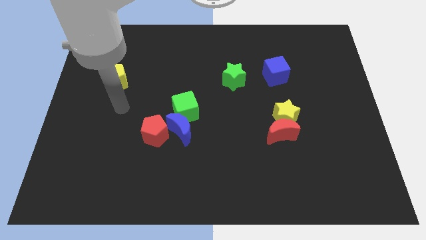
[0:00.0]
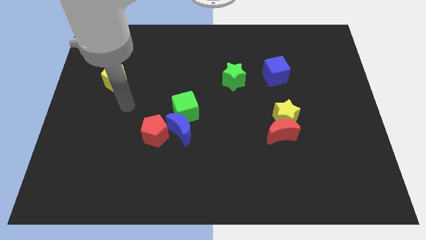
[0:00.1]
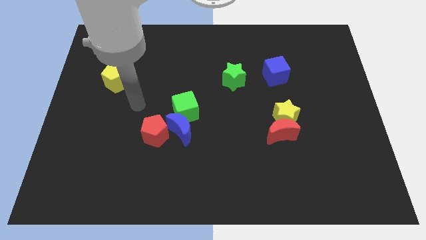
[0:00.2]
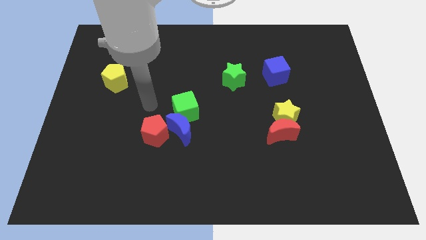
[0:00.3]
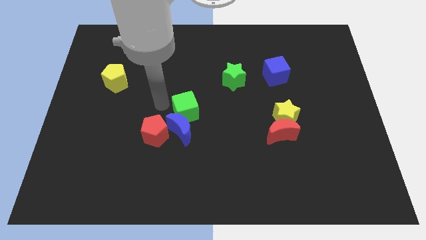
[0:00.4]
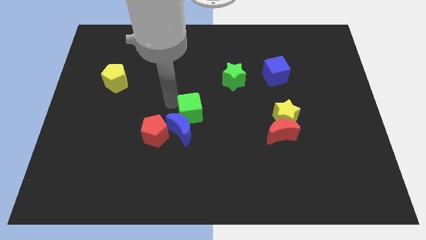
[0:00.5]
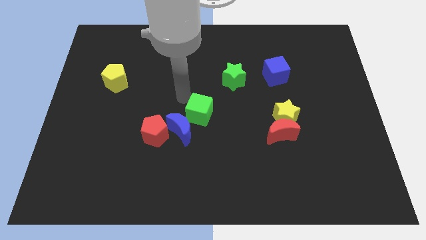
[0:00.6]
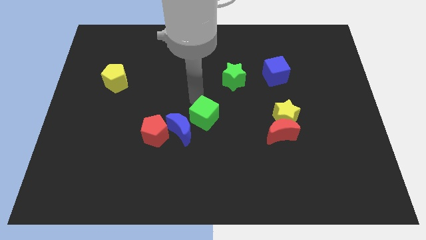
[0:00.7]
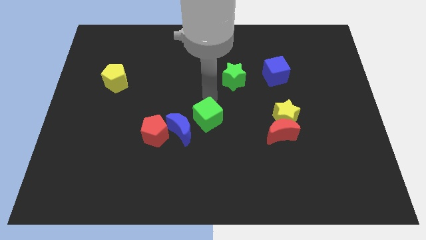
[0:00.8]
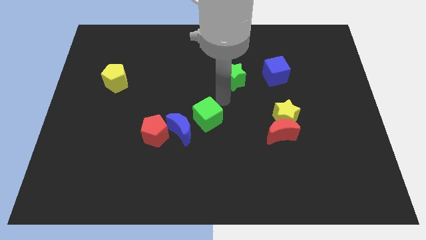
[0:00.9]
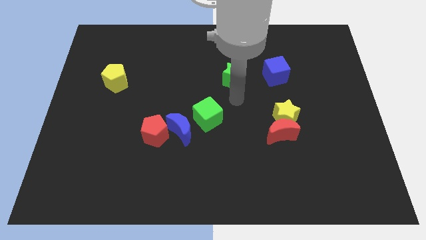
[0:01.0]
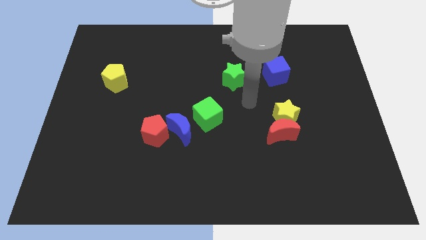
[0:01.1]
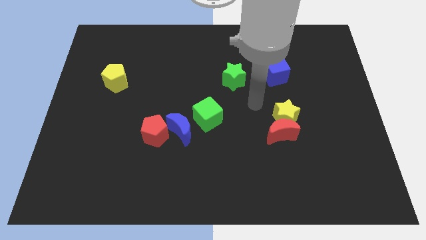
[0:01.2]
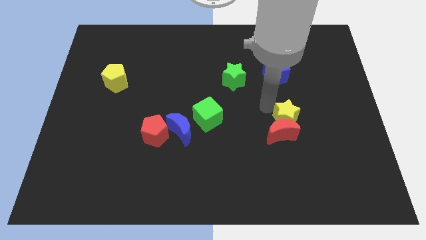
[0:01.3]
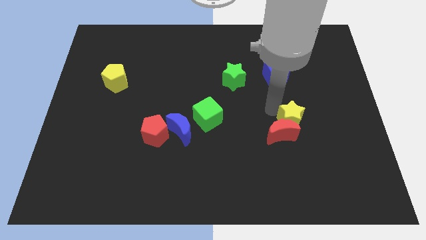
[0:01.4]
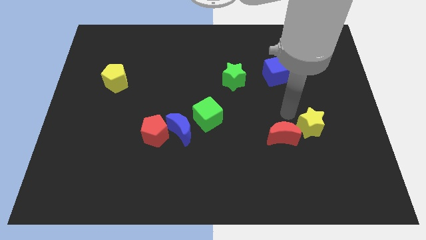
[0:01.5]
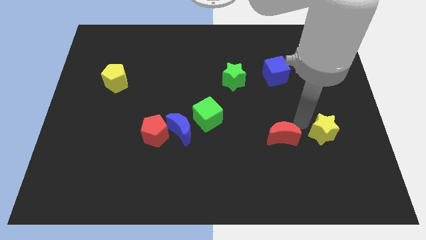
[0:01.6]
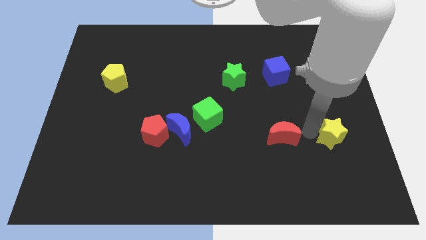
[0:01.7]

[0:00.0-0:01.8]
separate the red moon from the yellow star

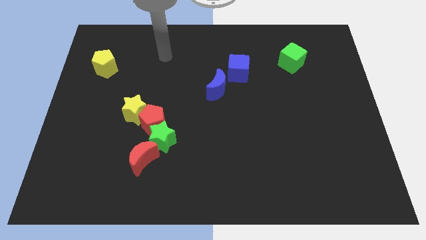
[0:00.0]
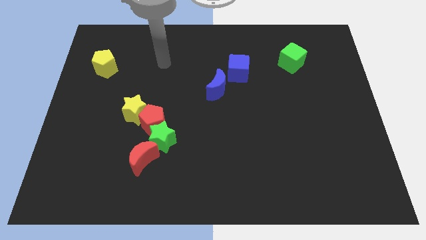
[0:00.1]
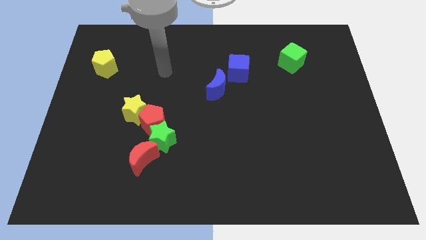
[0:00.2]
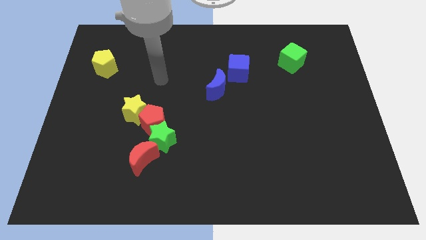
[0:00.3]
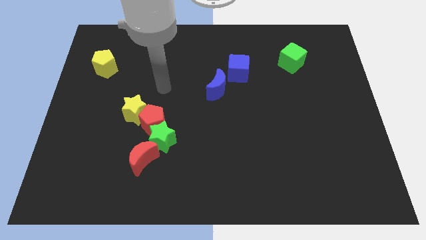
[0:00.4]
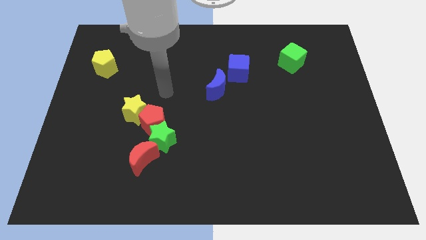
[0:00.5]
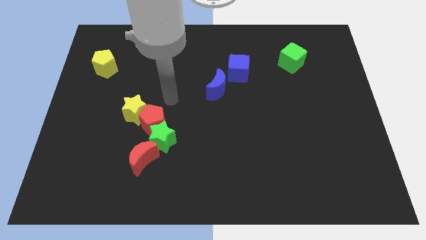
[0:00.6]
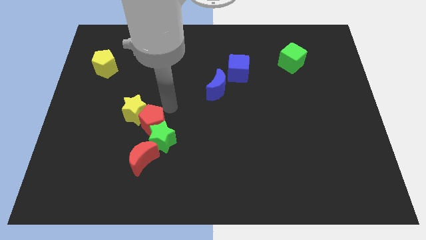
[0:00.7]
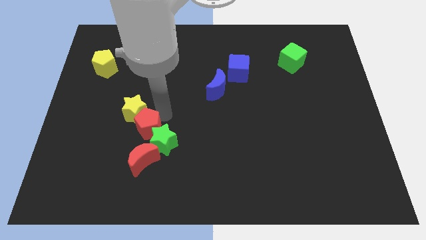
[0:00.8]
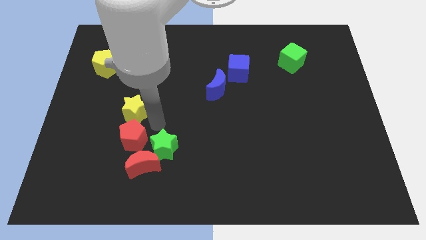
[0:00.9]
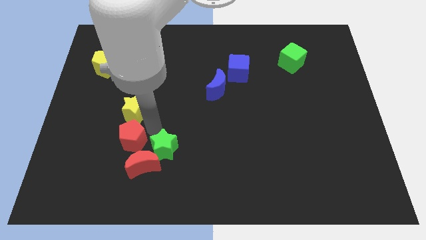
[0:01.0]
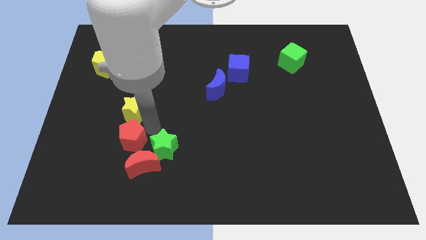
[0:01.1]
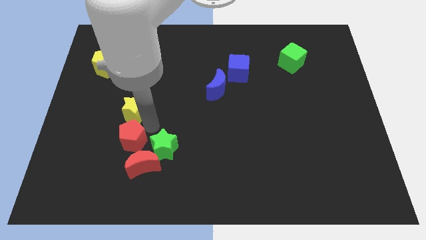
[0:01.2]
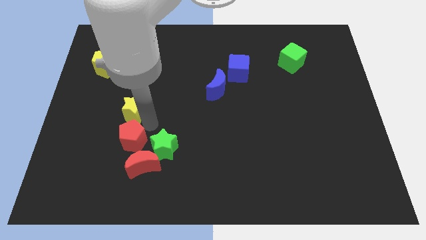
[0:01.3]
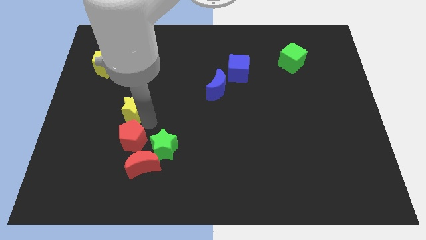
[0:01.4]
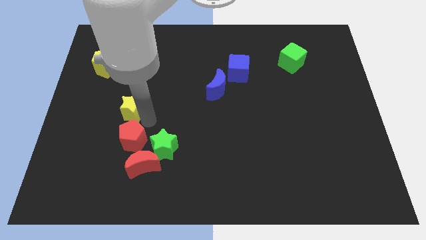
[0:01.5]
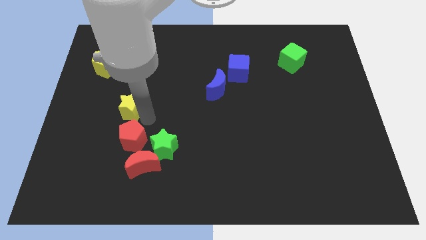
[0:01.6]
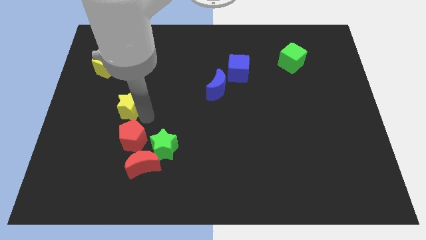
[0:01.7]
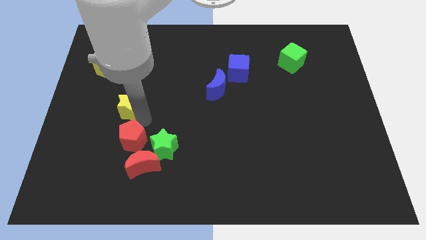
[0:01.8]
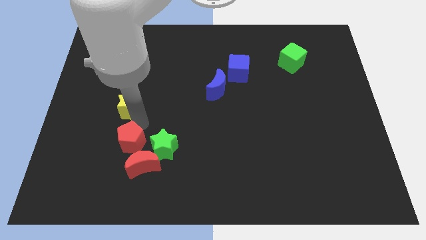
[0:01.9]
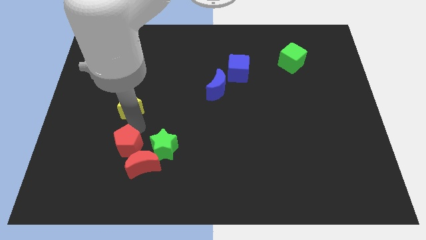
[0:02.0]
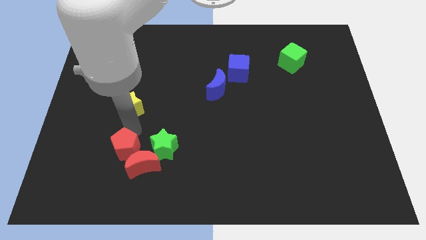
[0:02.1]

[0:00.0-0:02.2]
separate the yellow star from the red pentagon

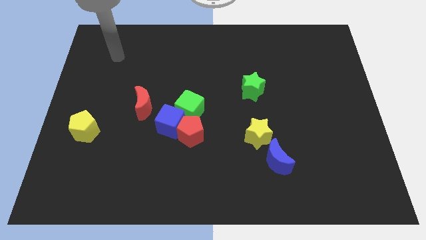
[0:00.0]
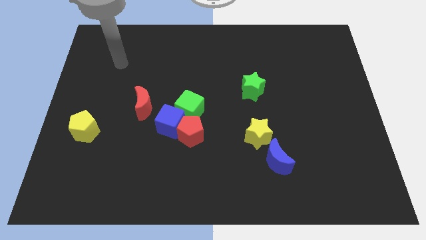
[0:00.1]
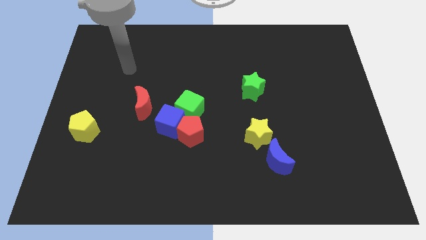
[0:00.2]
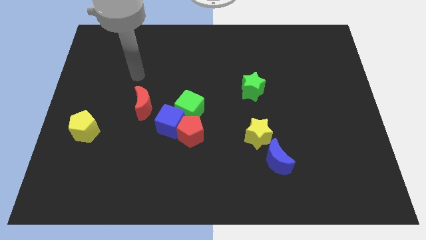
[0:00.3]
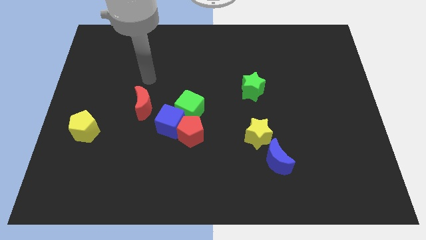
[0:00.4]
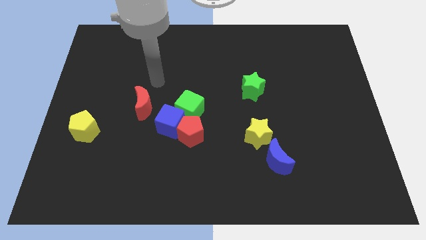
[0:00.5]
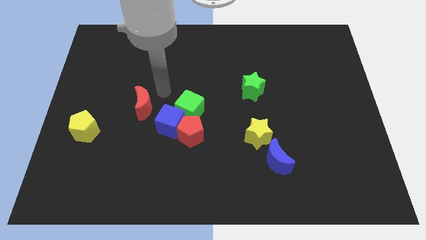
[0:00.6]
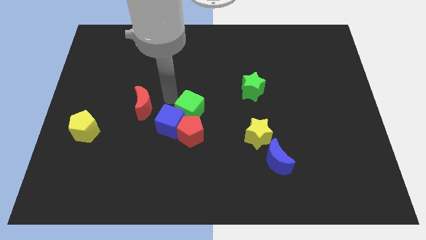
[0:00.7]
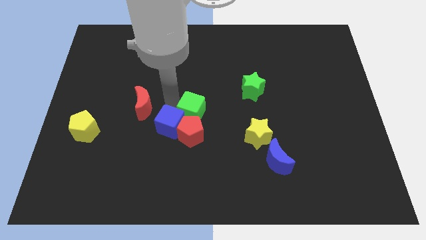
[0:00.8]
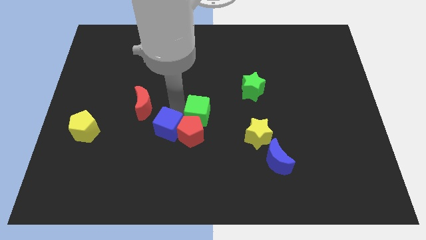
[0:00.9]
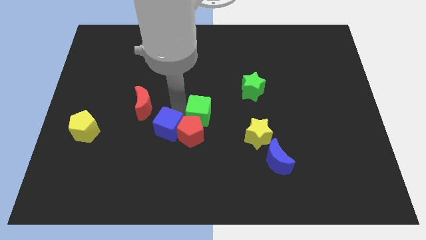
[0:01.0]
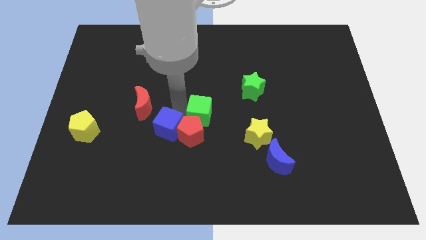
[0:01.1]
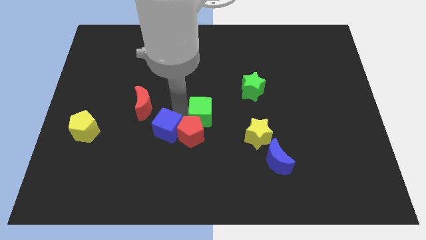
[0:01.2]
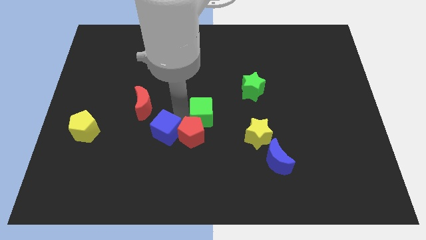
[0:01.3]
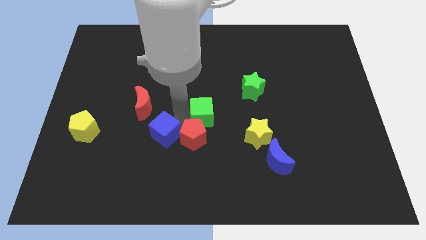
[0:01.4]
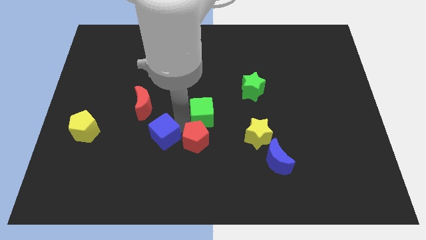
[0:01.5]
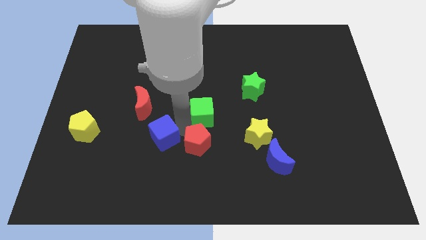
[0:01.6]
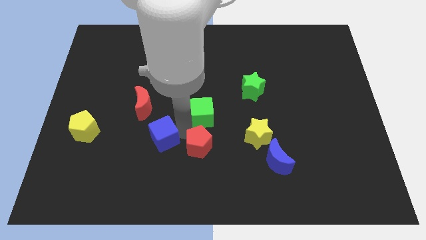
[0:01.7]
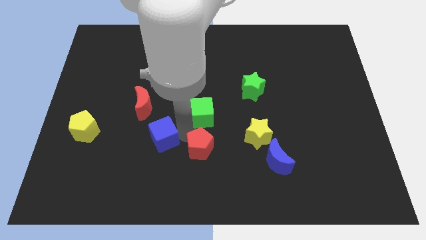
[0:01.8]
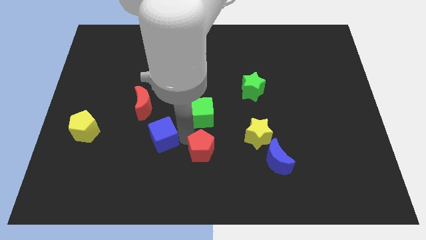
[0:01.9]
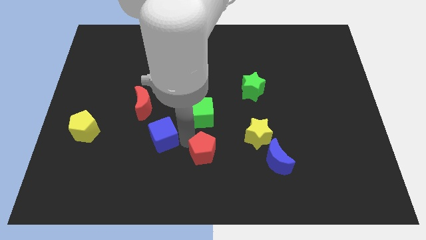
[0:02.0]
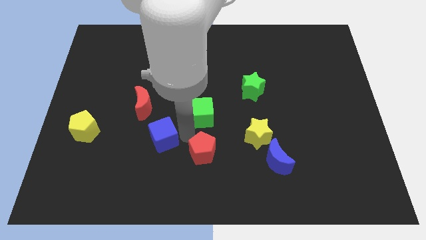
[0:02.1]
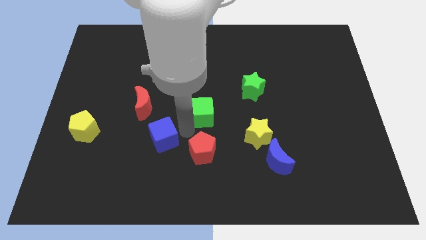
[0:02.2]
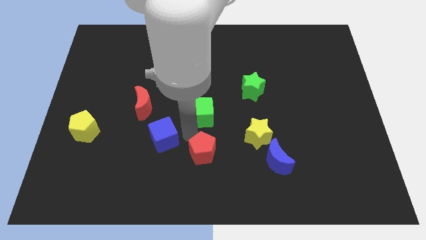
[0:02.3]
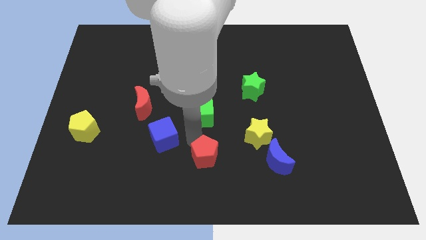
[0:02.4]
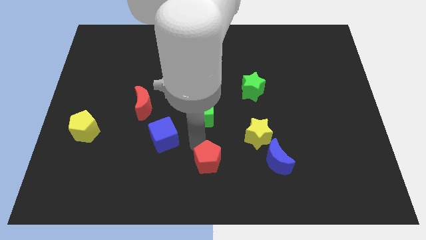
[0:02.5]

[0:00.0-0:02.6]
pull the red pentagon apart from the blue cube and green cube

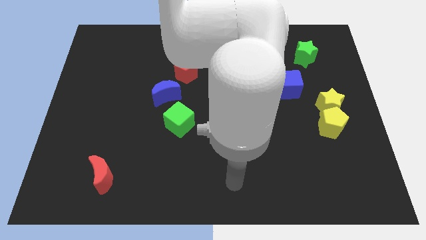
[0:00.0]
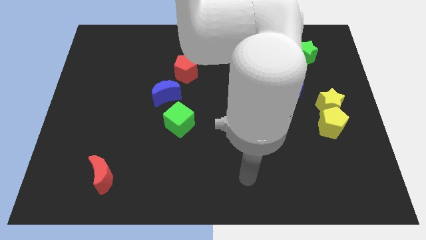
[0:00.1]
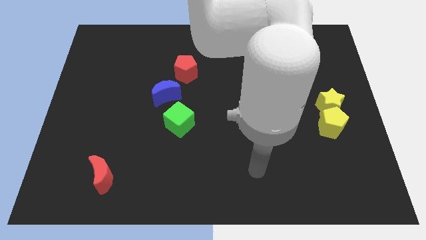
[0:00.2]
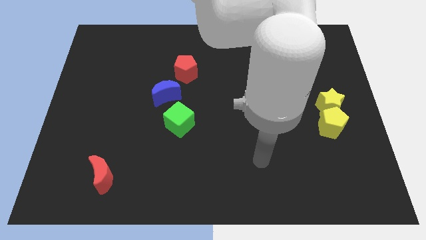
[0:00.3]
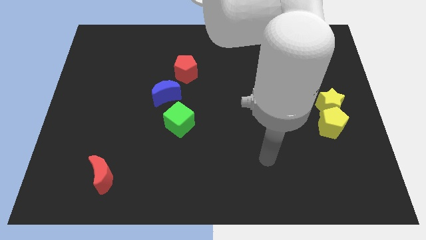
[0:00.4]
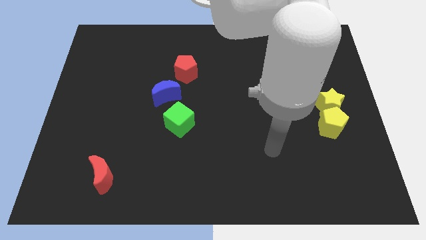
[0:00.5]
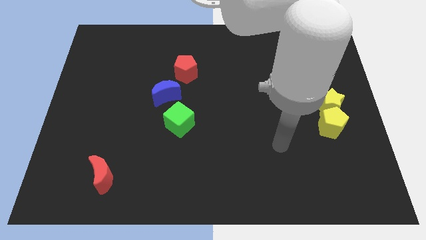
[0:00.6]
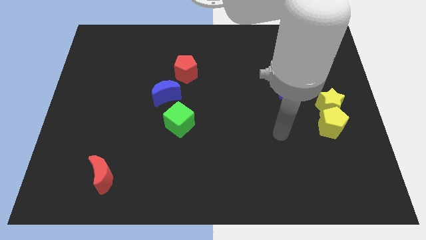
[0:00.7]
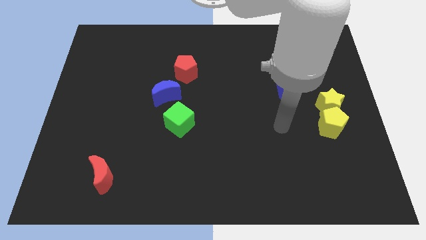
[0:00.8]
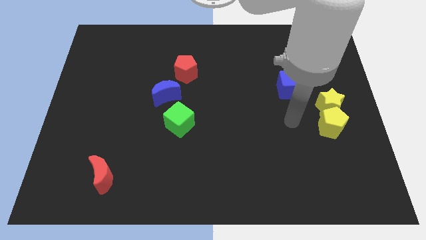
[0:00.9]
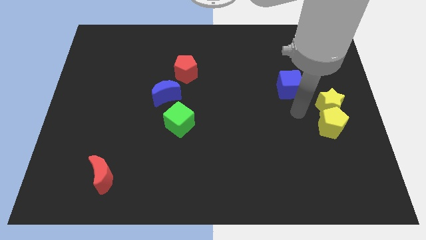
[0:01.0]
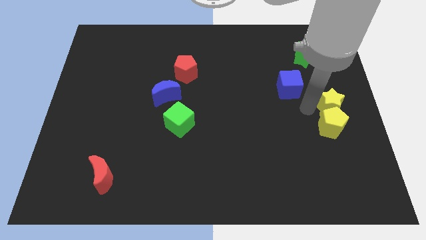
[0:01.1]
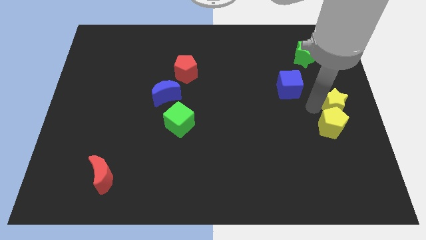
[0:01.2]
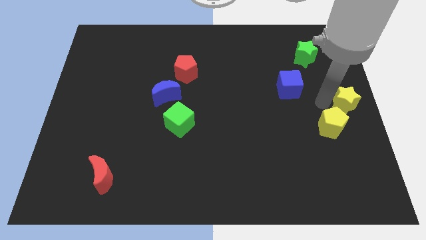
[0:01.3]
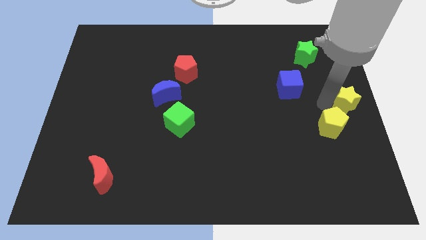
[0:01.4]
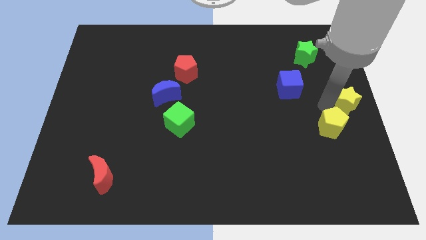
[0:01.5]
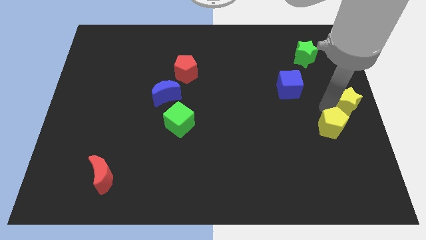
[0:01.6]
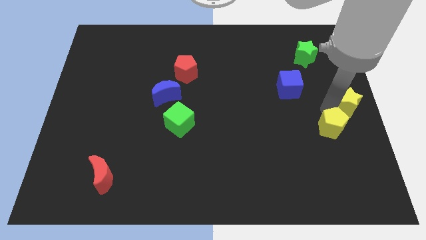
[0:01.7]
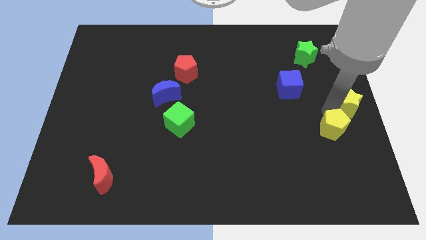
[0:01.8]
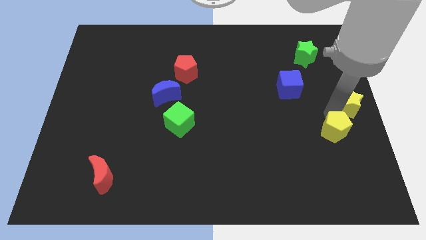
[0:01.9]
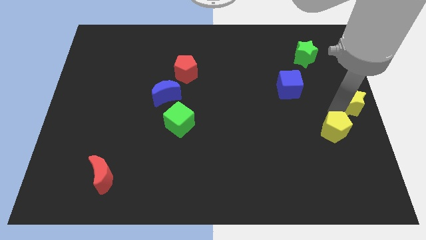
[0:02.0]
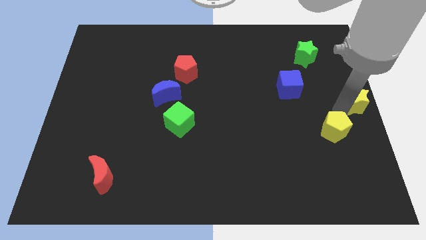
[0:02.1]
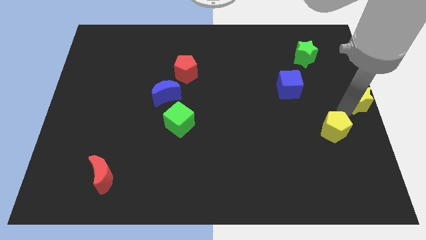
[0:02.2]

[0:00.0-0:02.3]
pull the yellow pentagon apart from the yellow star

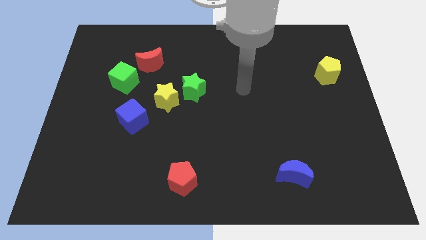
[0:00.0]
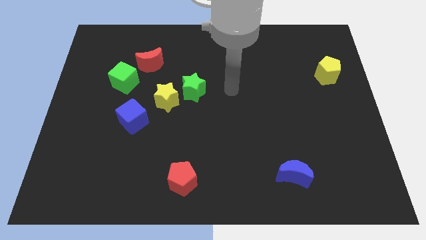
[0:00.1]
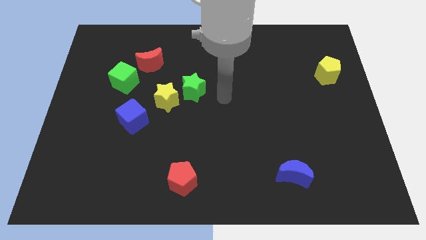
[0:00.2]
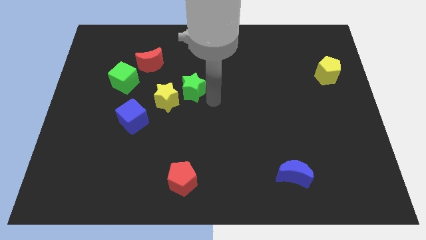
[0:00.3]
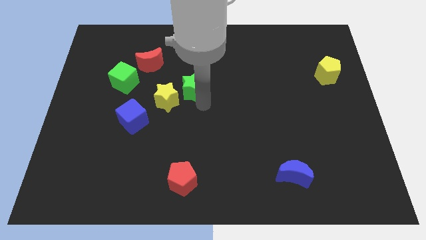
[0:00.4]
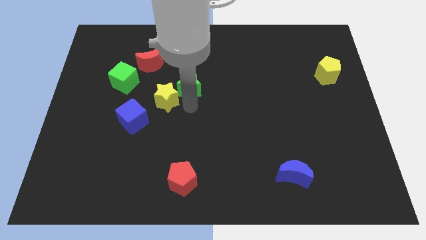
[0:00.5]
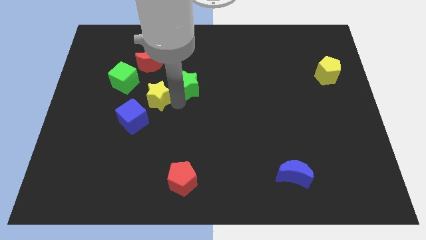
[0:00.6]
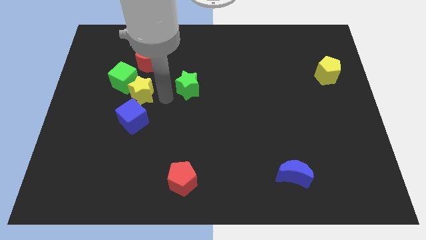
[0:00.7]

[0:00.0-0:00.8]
pull the green star apart from the yellow star
